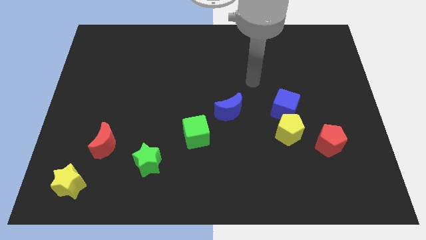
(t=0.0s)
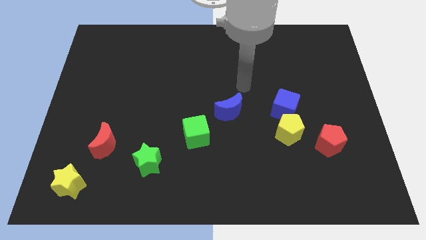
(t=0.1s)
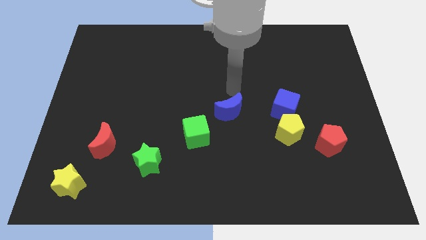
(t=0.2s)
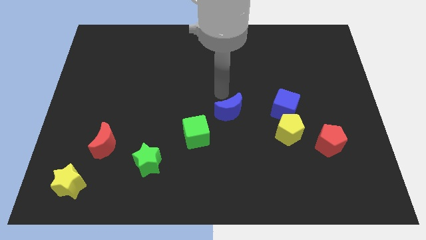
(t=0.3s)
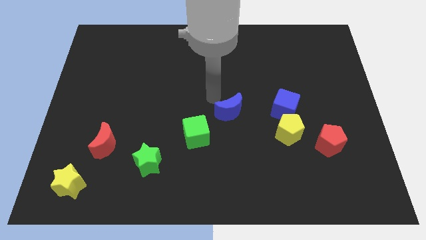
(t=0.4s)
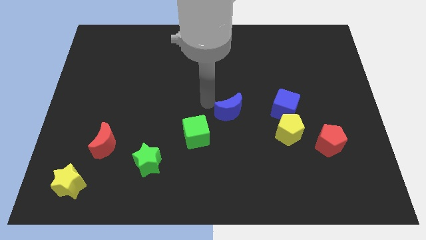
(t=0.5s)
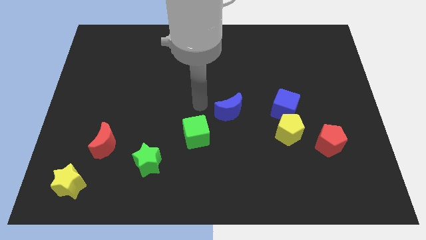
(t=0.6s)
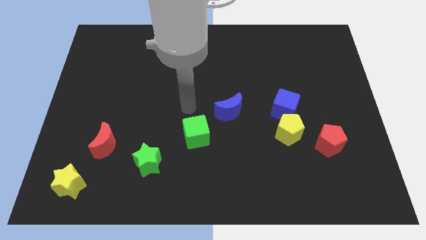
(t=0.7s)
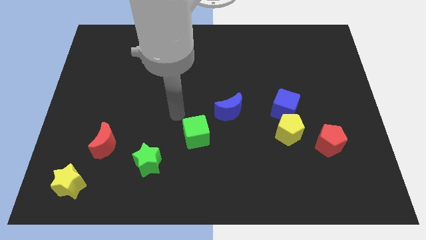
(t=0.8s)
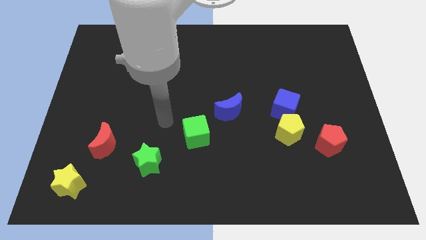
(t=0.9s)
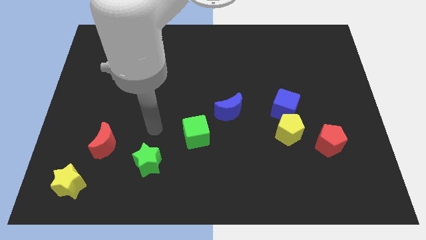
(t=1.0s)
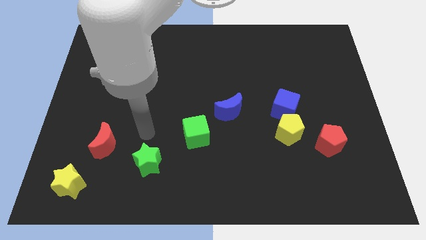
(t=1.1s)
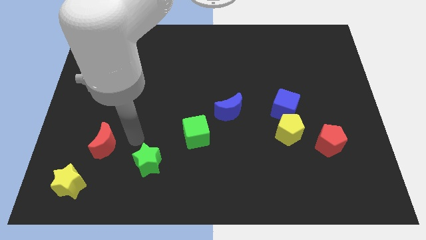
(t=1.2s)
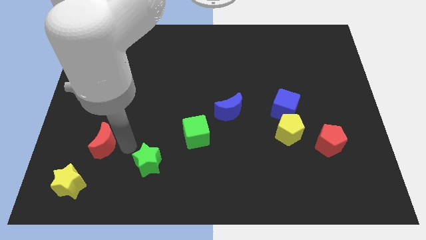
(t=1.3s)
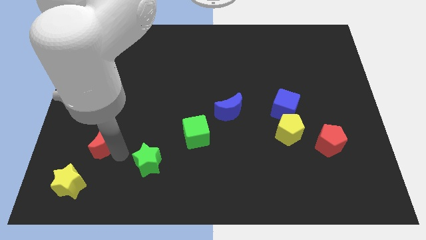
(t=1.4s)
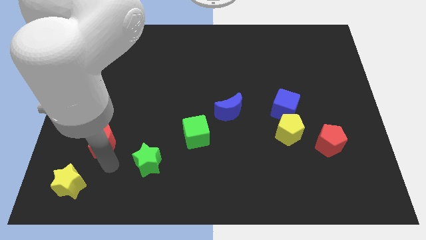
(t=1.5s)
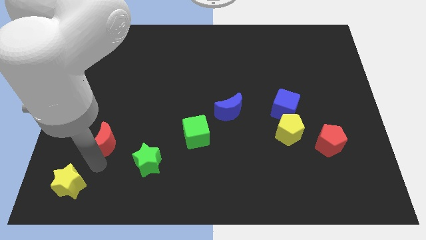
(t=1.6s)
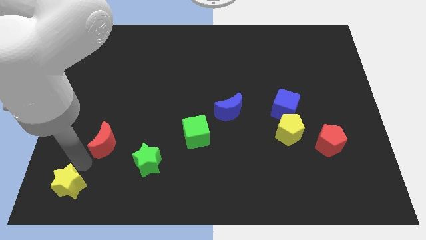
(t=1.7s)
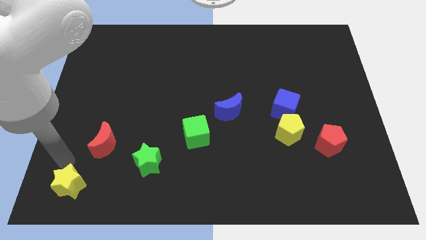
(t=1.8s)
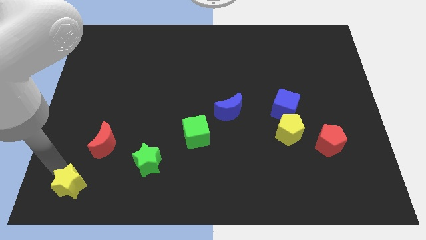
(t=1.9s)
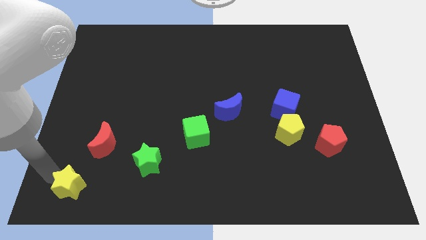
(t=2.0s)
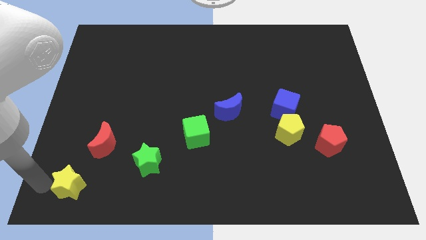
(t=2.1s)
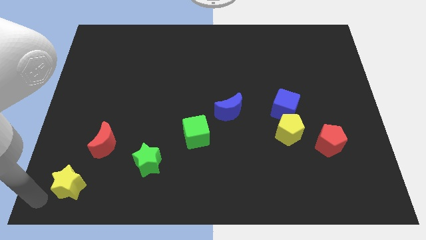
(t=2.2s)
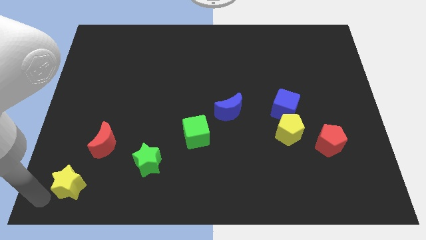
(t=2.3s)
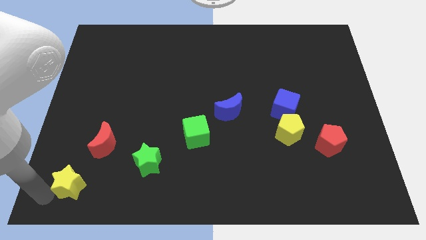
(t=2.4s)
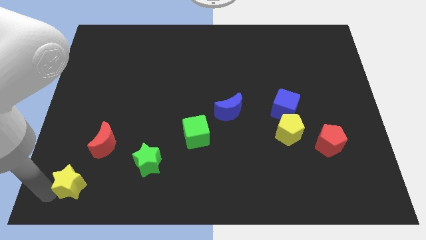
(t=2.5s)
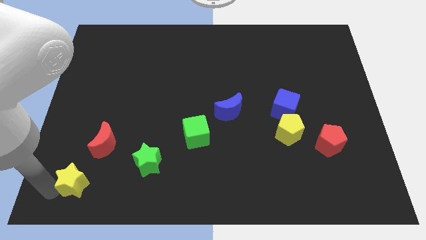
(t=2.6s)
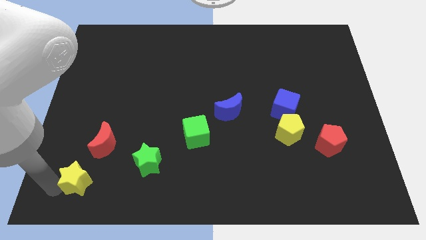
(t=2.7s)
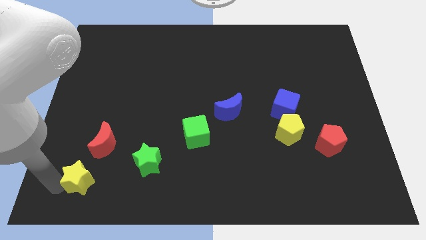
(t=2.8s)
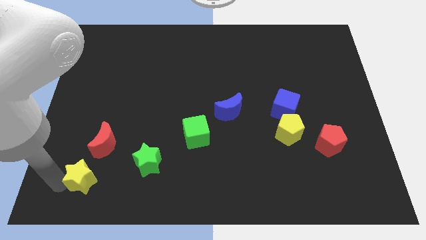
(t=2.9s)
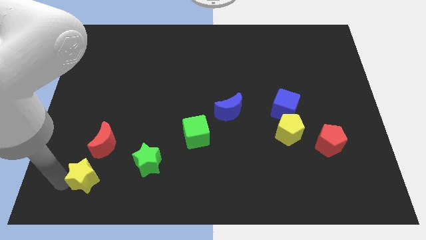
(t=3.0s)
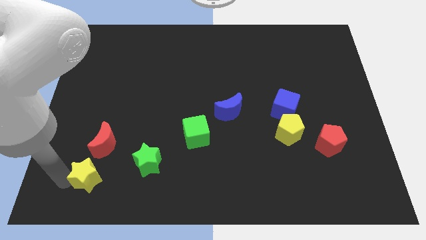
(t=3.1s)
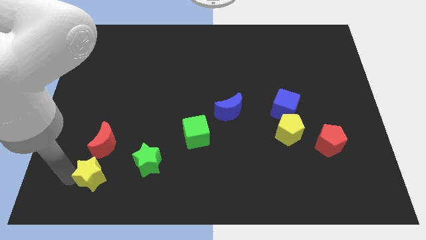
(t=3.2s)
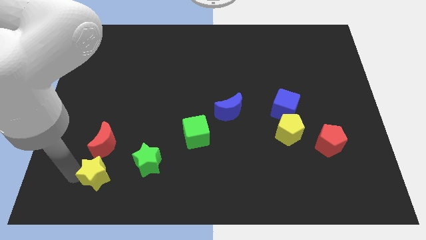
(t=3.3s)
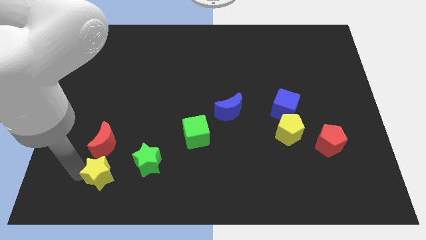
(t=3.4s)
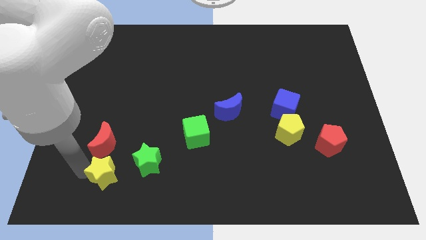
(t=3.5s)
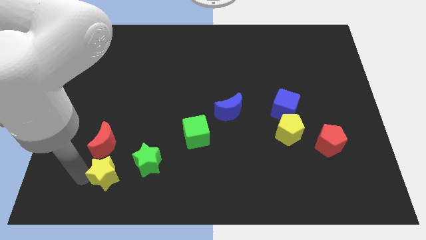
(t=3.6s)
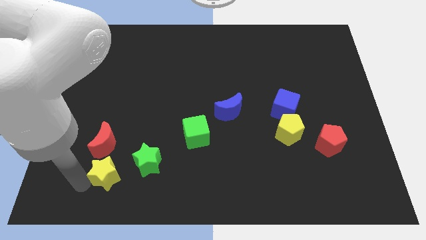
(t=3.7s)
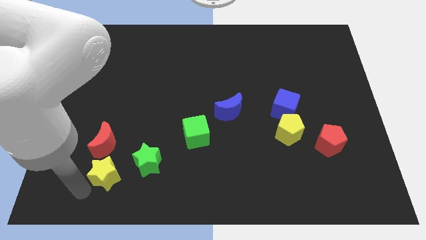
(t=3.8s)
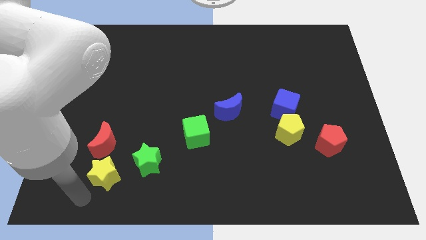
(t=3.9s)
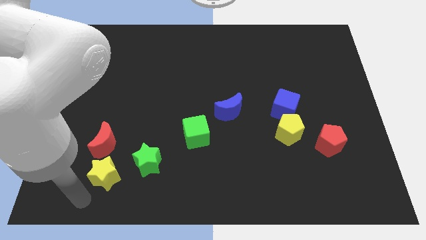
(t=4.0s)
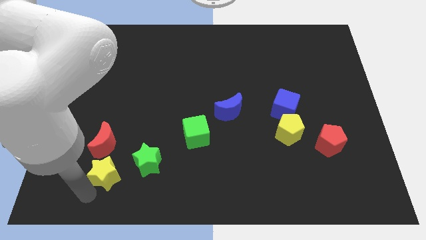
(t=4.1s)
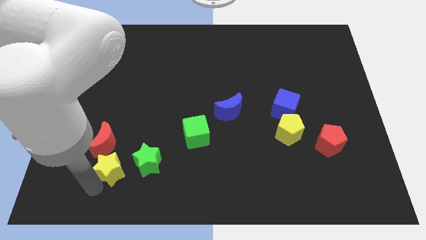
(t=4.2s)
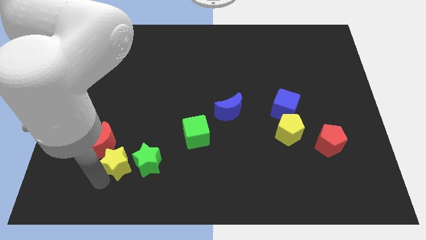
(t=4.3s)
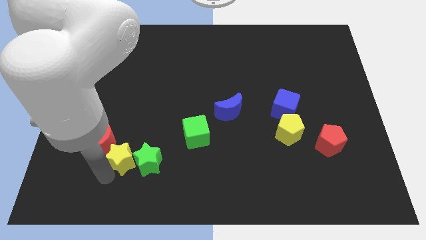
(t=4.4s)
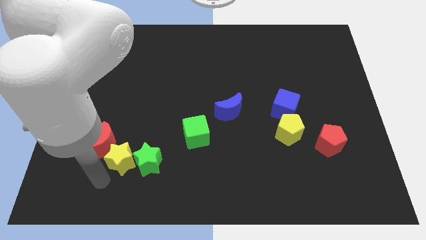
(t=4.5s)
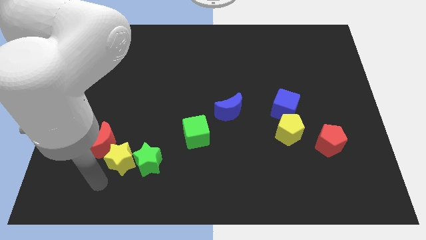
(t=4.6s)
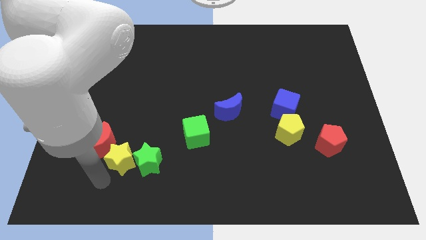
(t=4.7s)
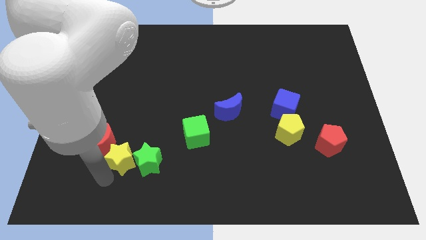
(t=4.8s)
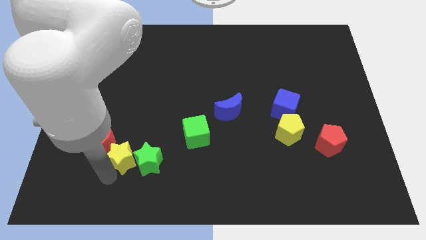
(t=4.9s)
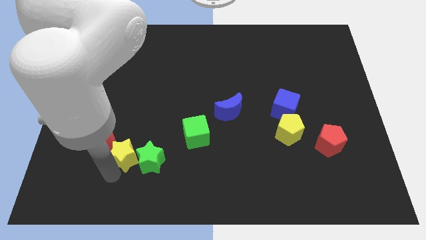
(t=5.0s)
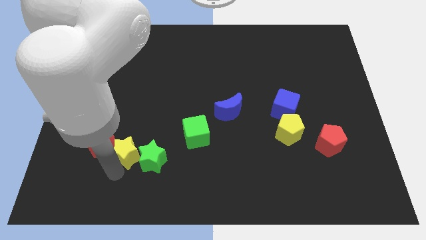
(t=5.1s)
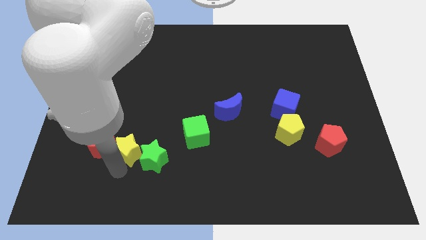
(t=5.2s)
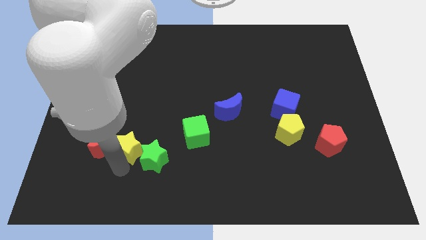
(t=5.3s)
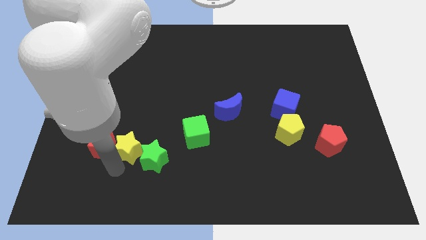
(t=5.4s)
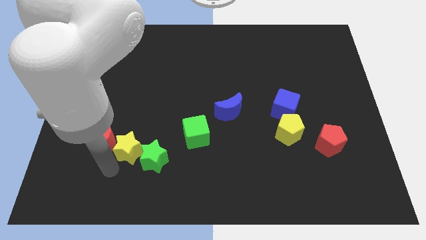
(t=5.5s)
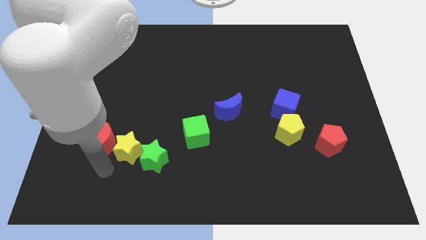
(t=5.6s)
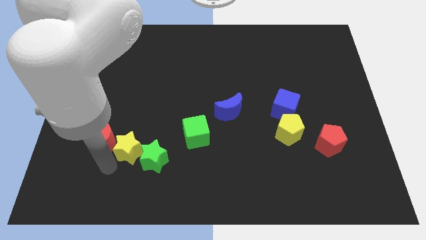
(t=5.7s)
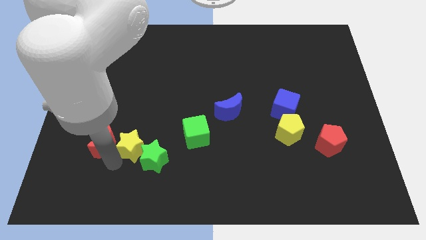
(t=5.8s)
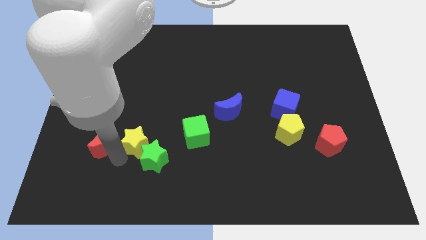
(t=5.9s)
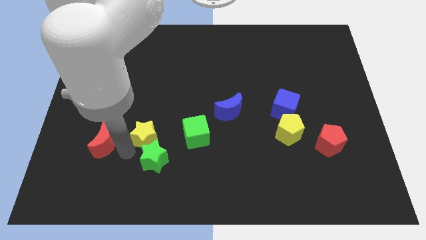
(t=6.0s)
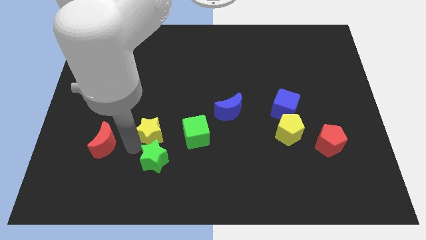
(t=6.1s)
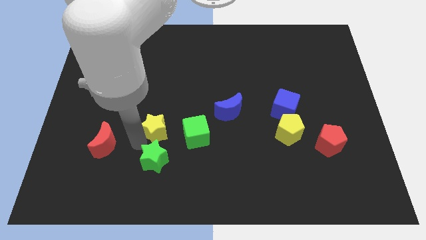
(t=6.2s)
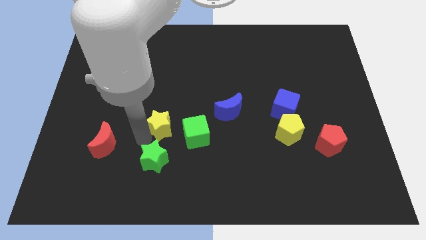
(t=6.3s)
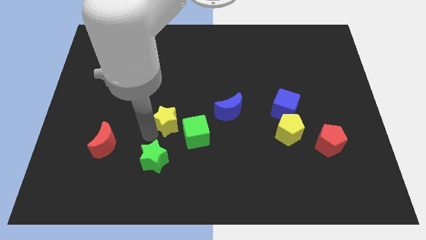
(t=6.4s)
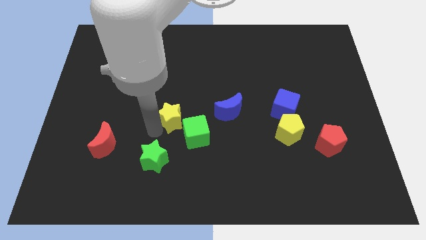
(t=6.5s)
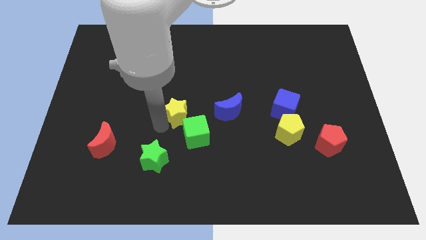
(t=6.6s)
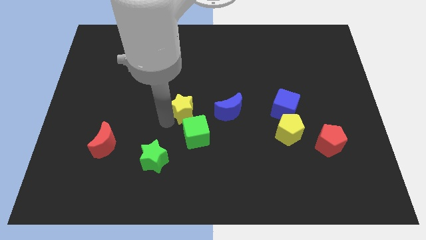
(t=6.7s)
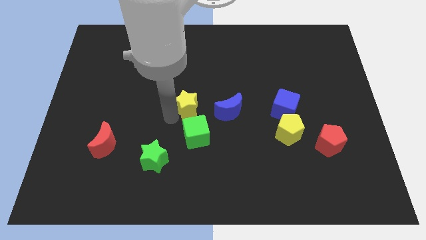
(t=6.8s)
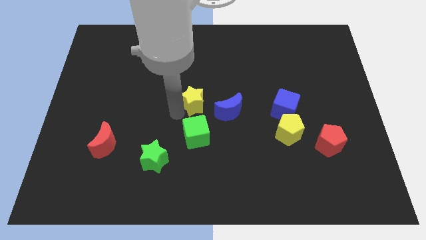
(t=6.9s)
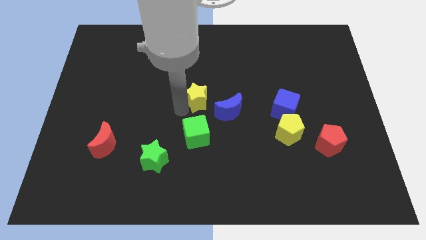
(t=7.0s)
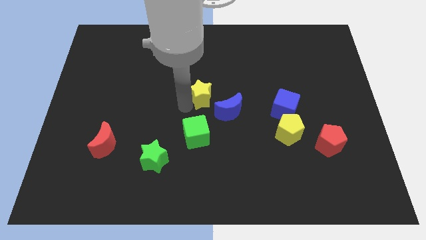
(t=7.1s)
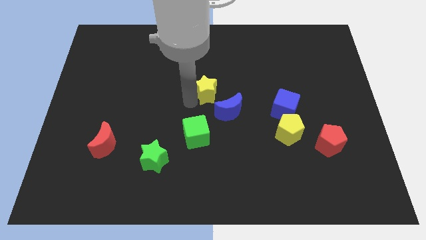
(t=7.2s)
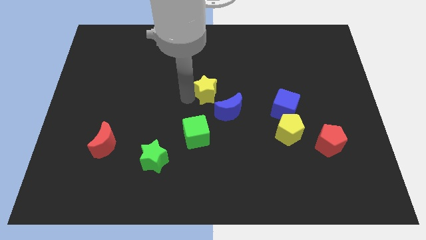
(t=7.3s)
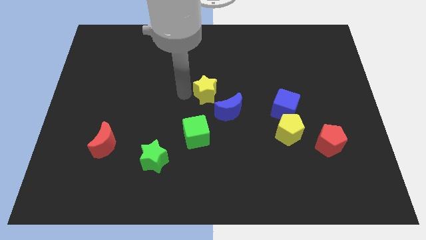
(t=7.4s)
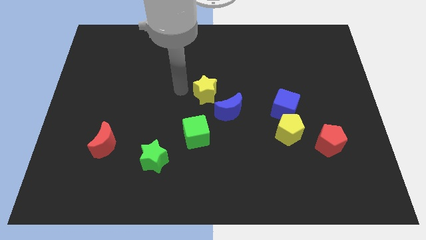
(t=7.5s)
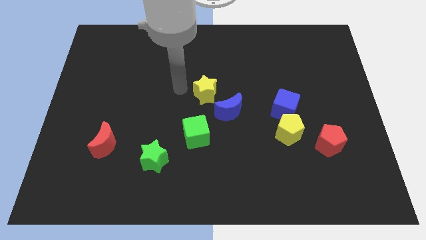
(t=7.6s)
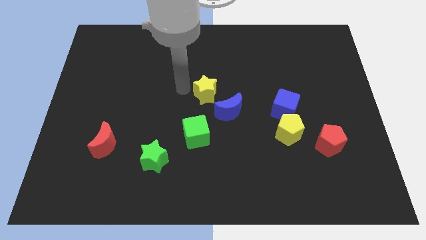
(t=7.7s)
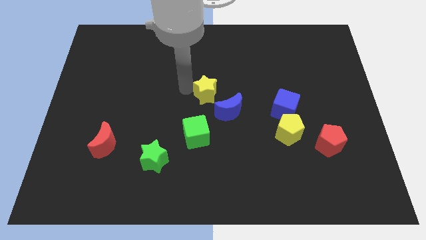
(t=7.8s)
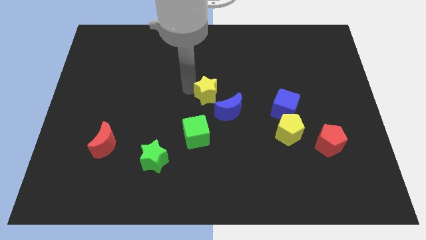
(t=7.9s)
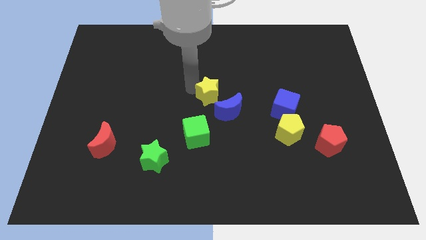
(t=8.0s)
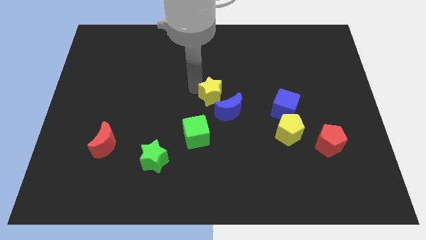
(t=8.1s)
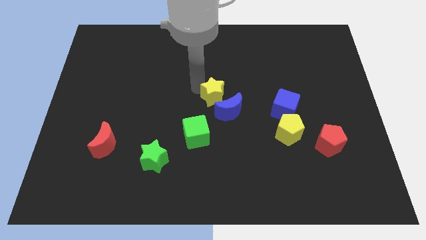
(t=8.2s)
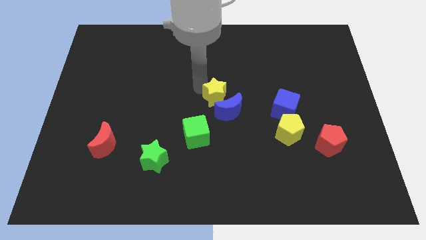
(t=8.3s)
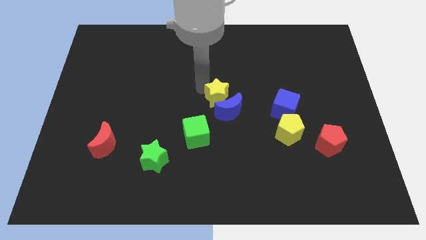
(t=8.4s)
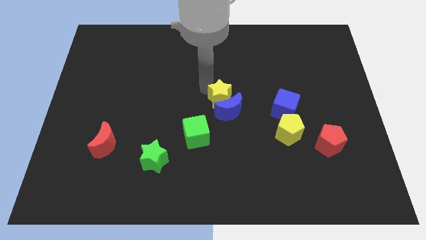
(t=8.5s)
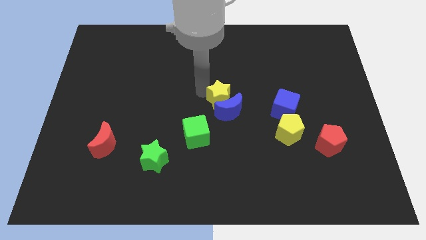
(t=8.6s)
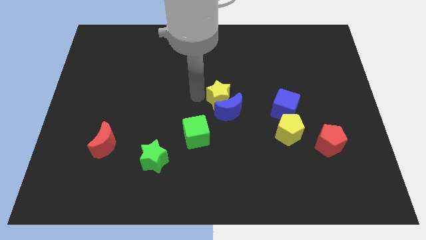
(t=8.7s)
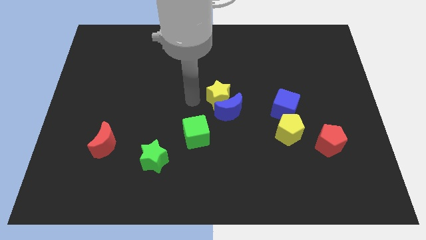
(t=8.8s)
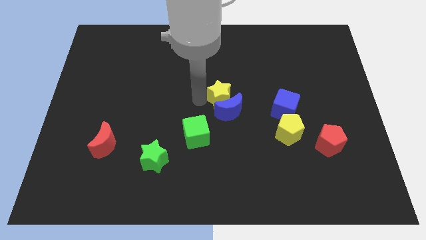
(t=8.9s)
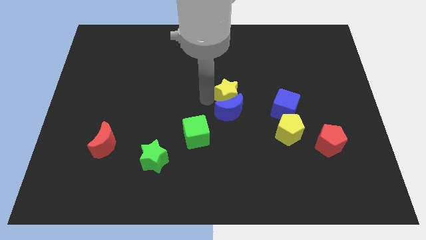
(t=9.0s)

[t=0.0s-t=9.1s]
move the yellow star diagonally up and to the right of the blue moon
